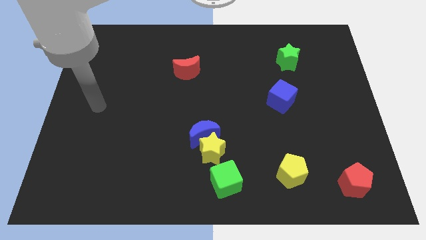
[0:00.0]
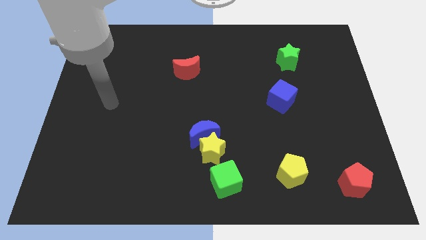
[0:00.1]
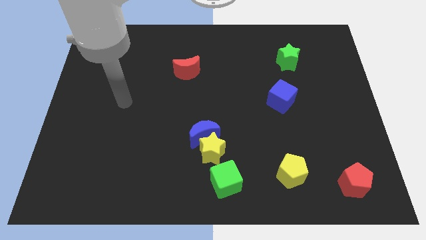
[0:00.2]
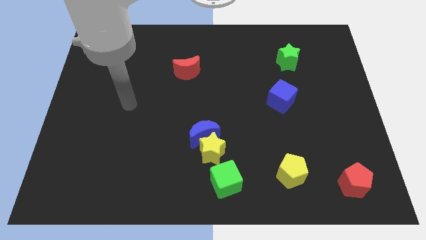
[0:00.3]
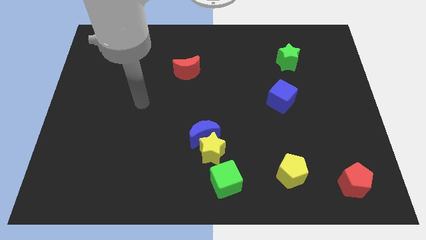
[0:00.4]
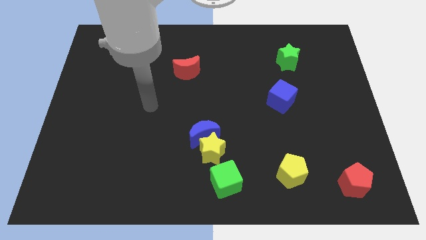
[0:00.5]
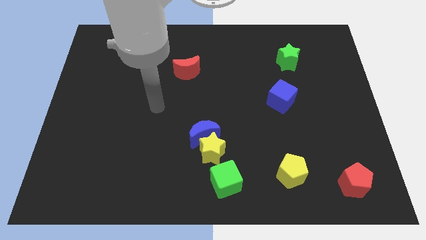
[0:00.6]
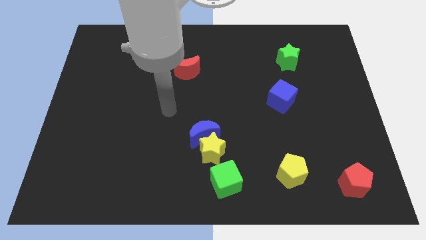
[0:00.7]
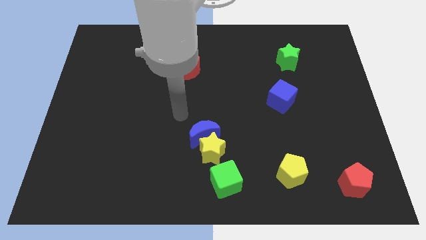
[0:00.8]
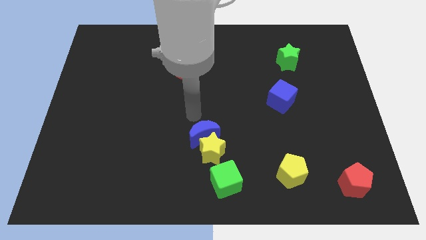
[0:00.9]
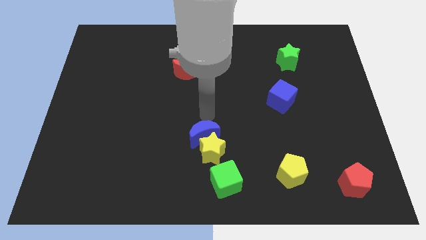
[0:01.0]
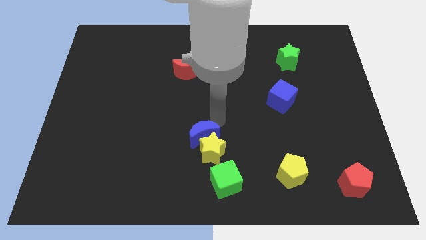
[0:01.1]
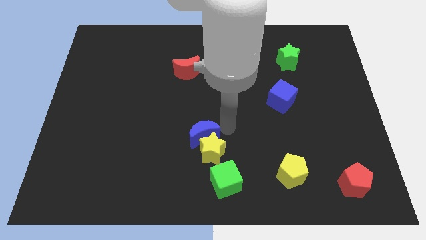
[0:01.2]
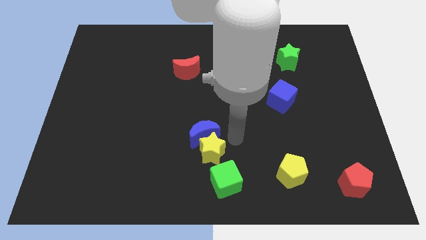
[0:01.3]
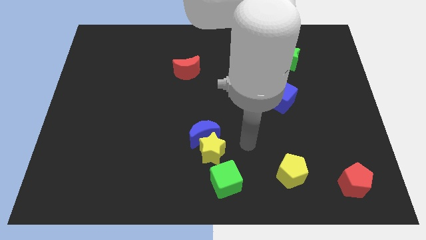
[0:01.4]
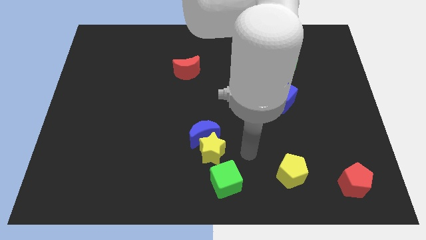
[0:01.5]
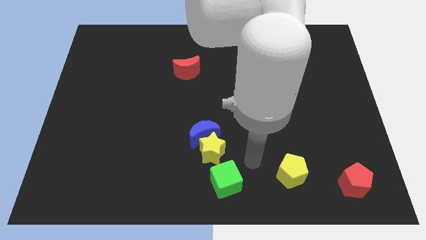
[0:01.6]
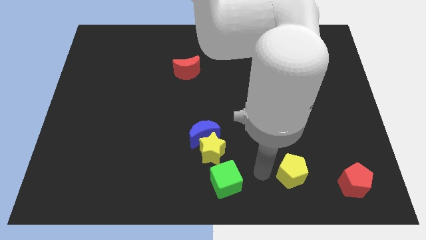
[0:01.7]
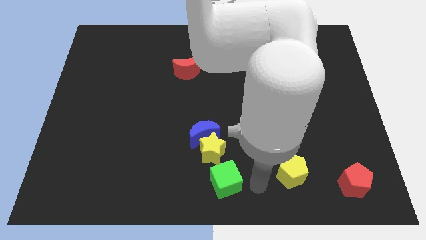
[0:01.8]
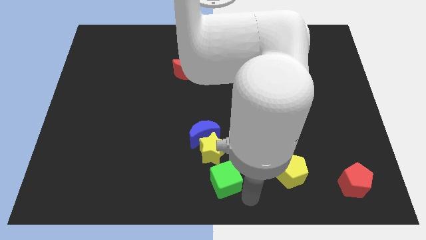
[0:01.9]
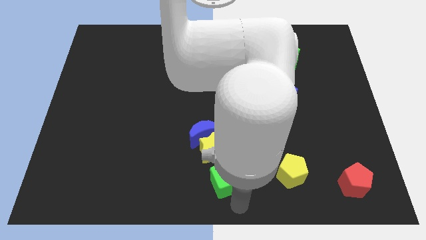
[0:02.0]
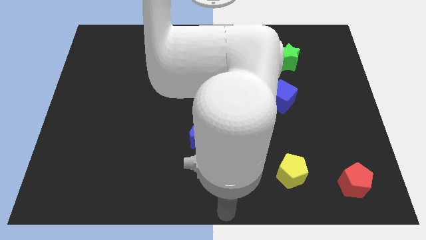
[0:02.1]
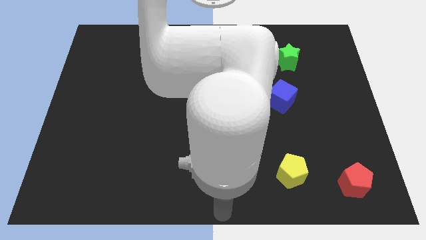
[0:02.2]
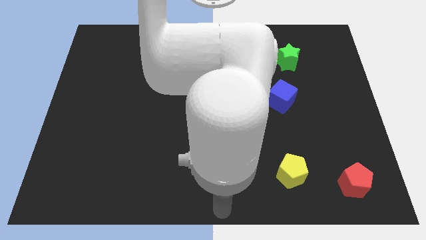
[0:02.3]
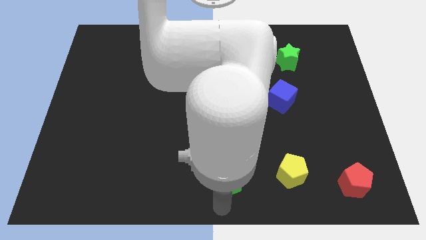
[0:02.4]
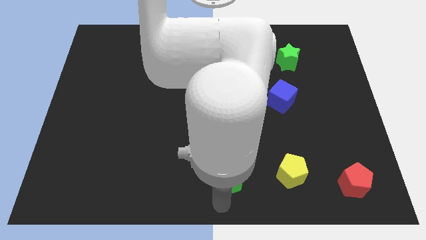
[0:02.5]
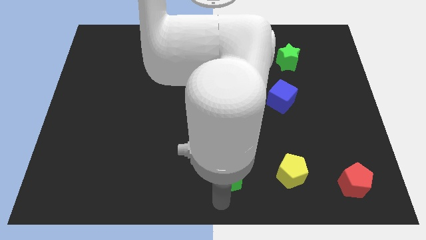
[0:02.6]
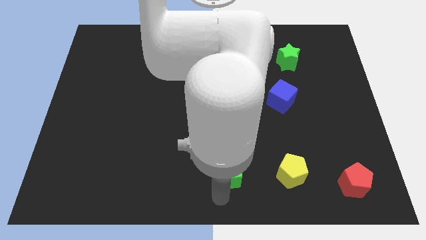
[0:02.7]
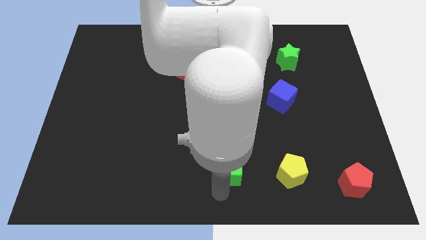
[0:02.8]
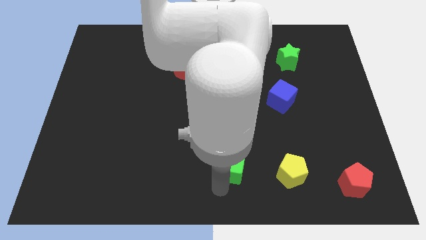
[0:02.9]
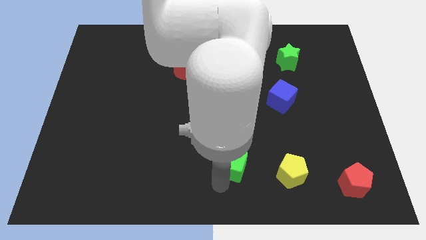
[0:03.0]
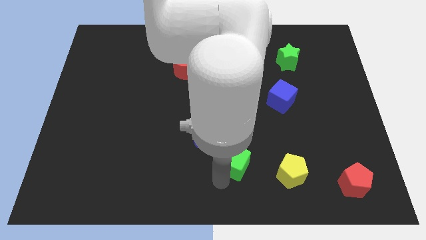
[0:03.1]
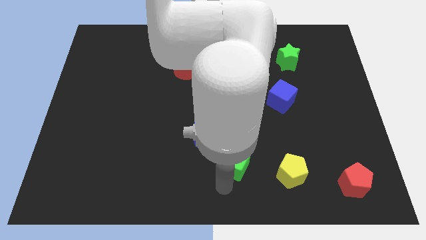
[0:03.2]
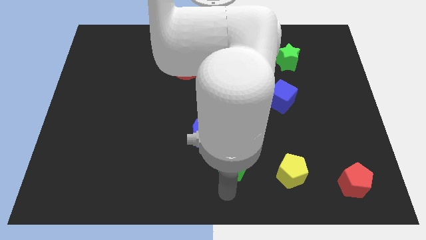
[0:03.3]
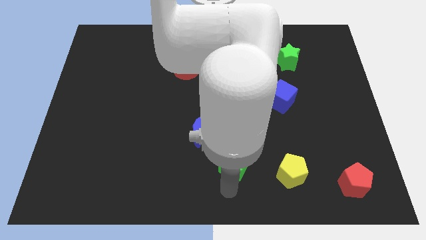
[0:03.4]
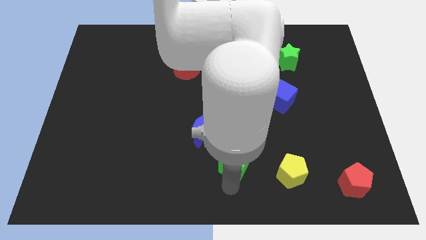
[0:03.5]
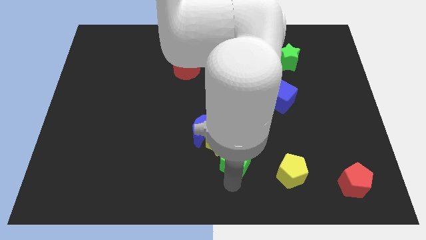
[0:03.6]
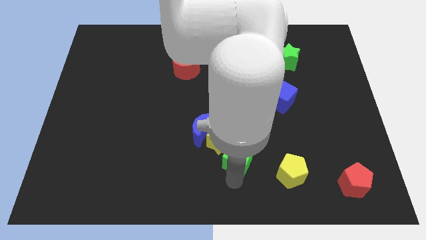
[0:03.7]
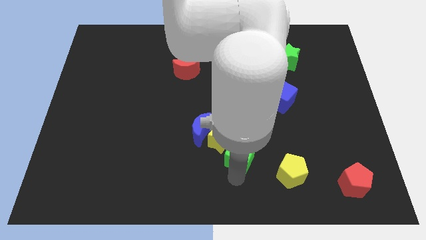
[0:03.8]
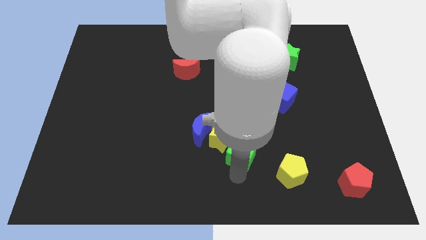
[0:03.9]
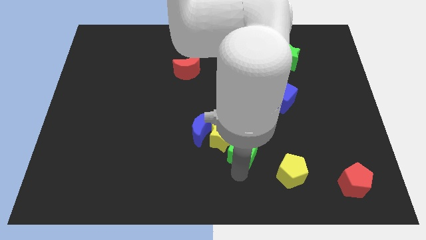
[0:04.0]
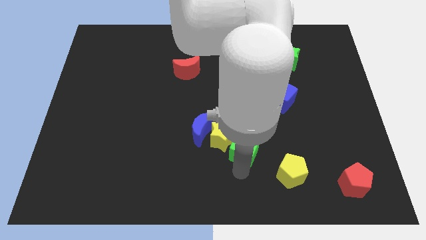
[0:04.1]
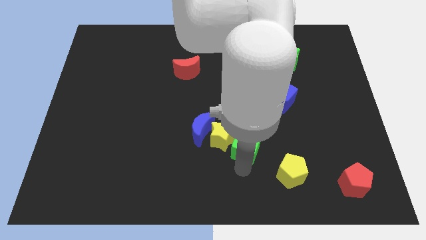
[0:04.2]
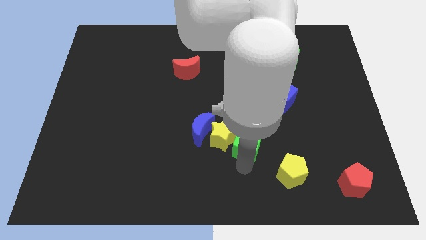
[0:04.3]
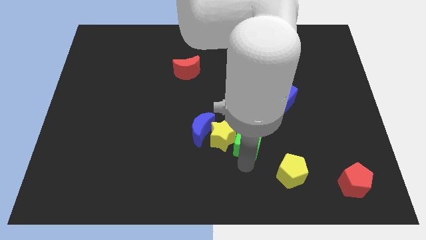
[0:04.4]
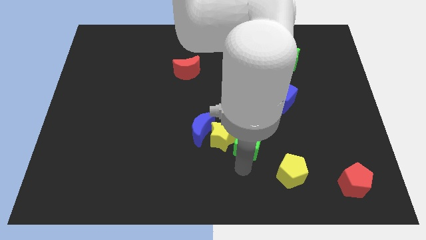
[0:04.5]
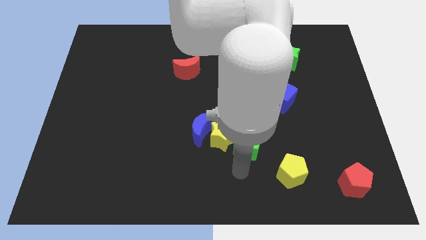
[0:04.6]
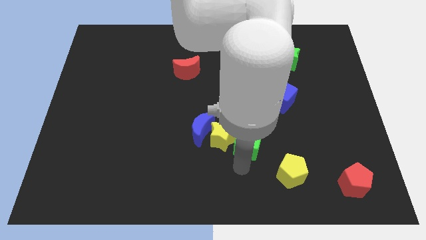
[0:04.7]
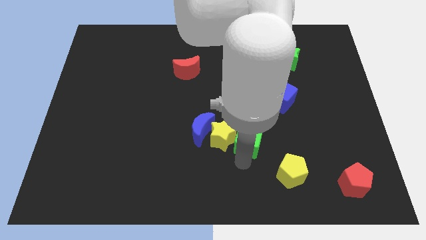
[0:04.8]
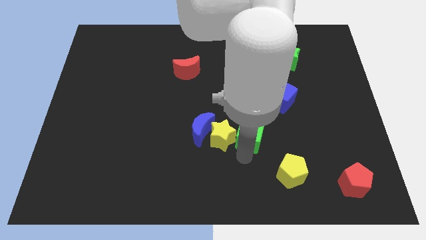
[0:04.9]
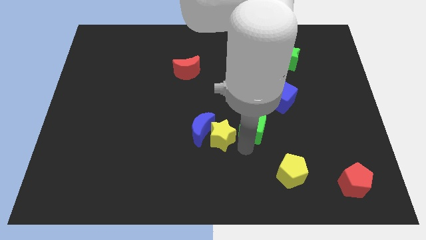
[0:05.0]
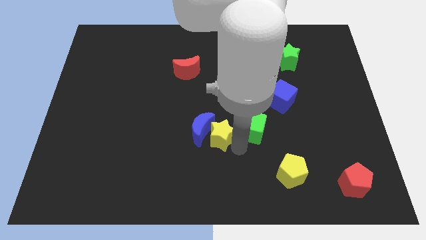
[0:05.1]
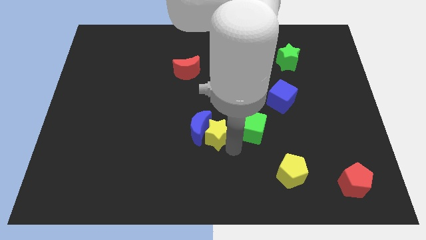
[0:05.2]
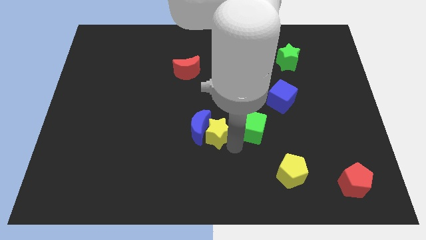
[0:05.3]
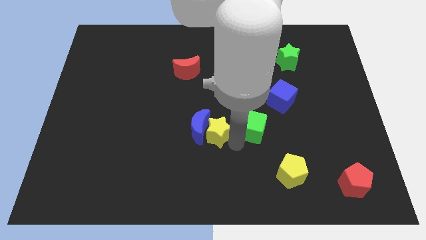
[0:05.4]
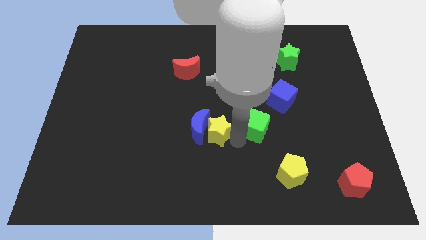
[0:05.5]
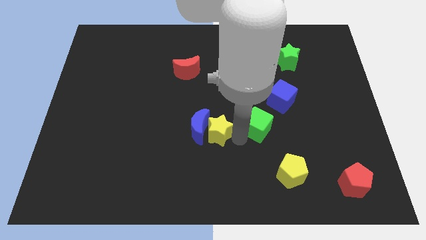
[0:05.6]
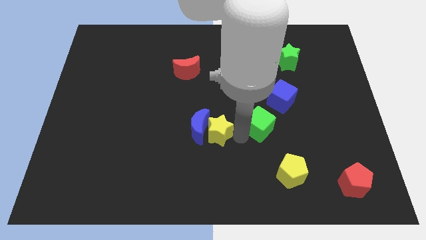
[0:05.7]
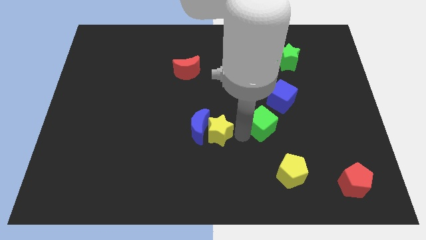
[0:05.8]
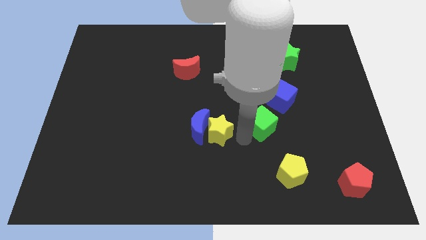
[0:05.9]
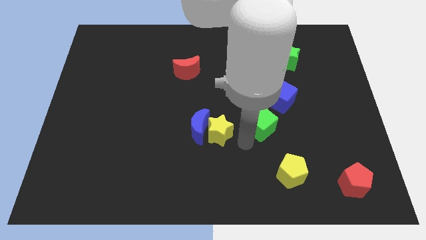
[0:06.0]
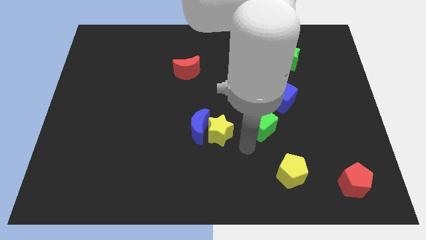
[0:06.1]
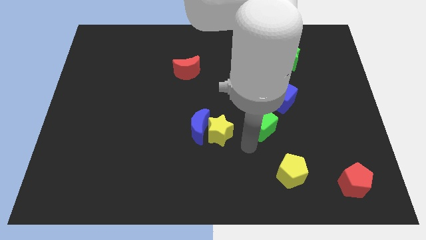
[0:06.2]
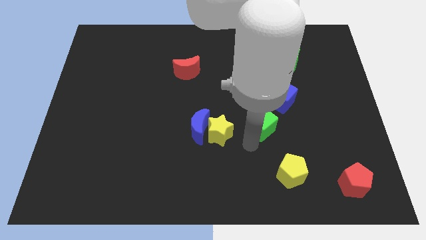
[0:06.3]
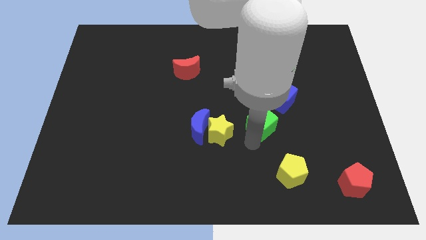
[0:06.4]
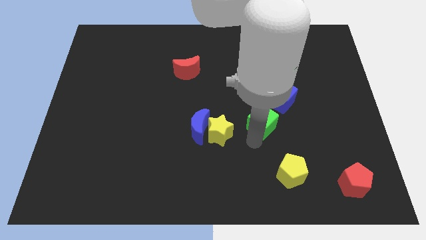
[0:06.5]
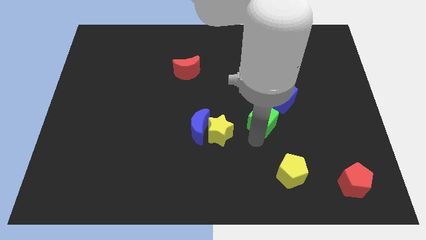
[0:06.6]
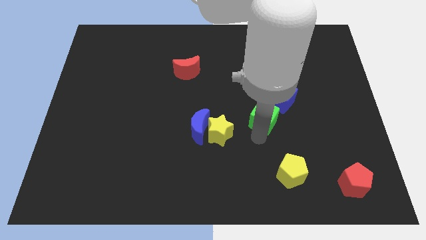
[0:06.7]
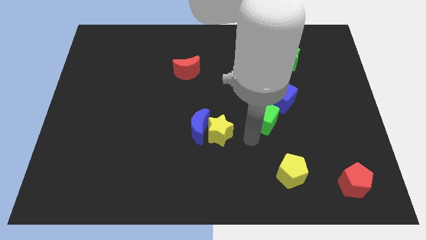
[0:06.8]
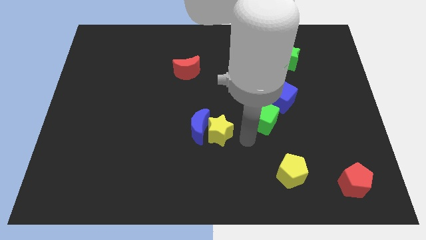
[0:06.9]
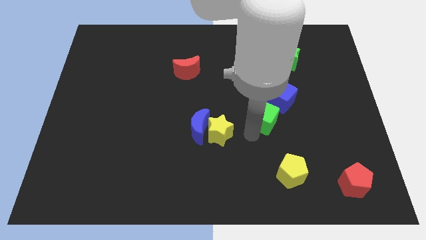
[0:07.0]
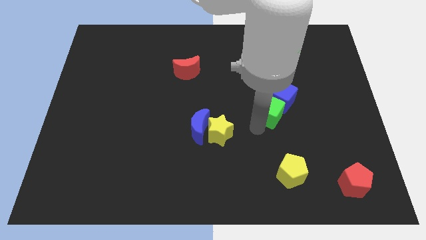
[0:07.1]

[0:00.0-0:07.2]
move the green cube close to the blue cube
